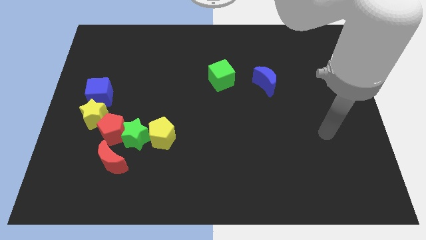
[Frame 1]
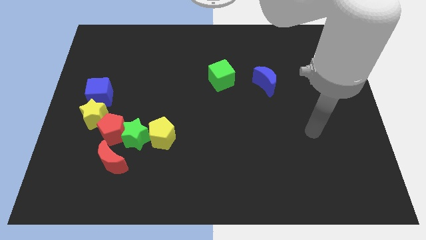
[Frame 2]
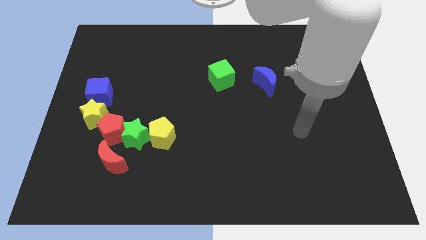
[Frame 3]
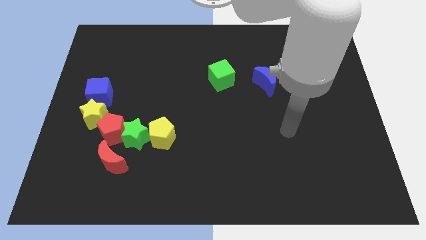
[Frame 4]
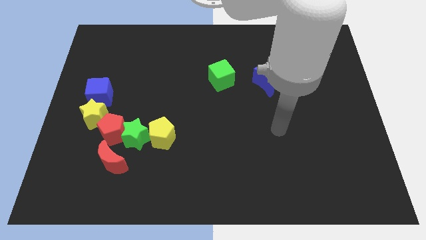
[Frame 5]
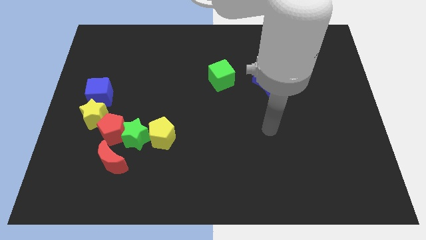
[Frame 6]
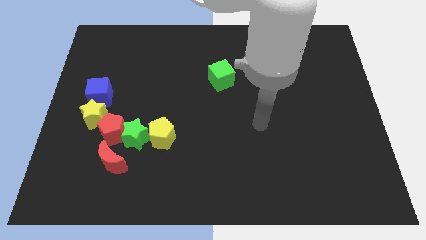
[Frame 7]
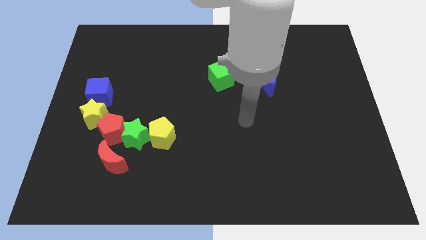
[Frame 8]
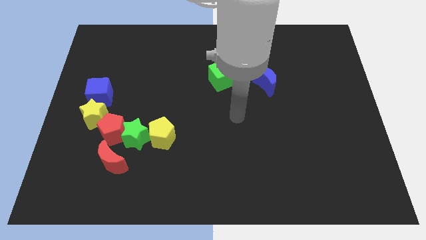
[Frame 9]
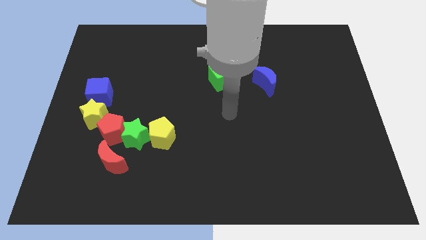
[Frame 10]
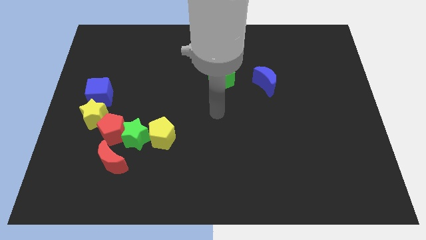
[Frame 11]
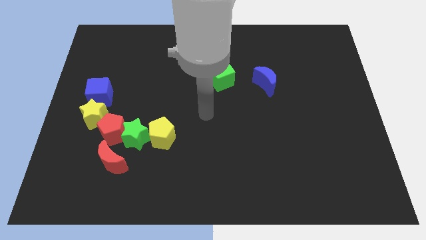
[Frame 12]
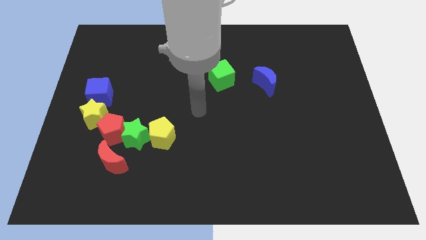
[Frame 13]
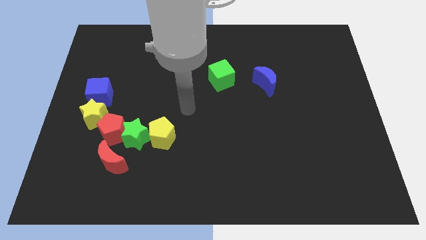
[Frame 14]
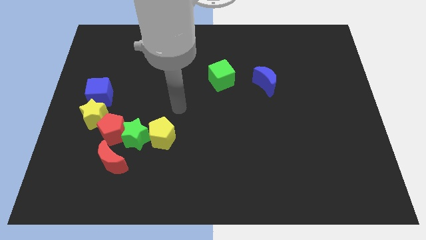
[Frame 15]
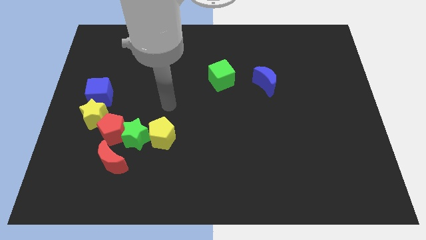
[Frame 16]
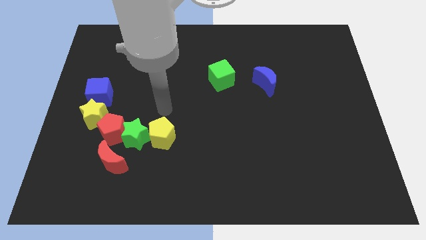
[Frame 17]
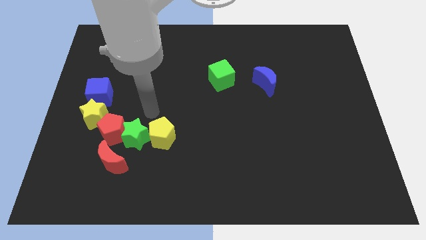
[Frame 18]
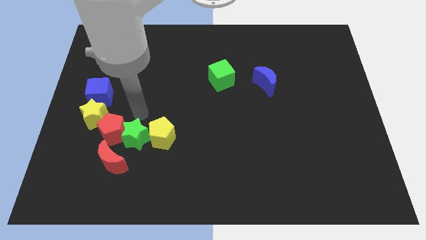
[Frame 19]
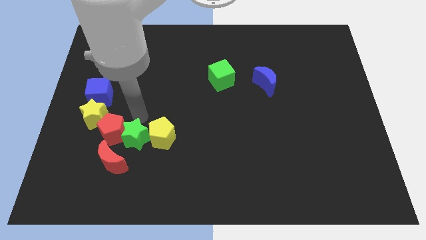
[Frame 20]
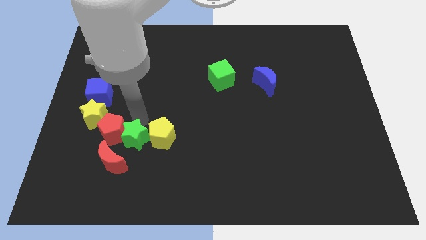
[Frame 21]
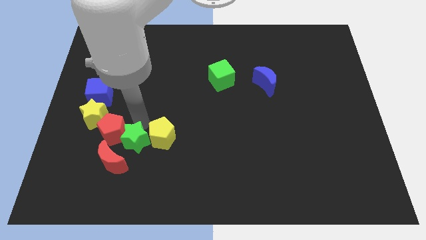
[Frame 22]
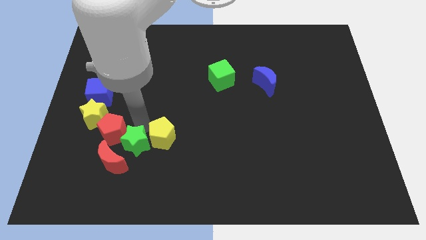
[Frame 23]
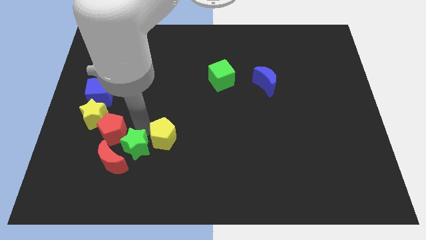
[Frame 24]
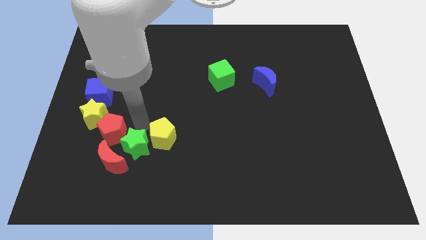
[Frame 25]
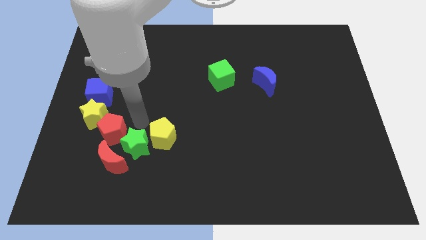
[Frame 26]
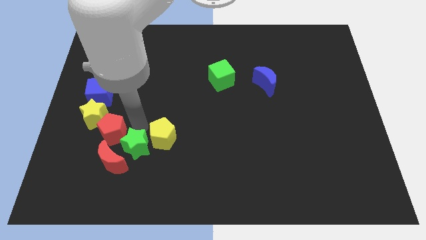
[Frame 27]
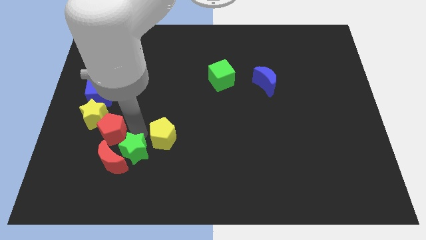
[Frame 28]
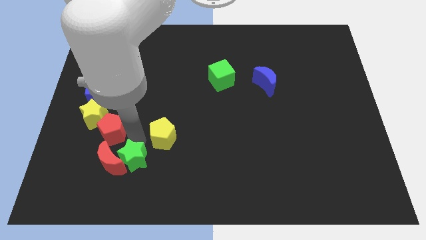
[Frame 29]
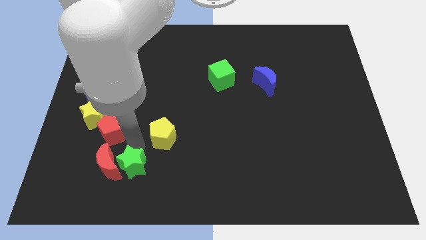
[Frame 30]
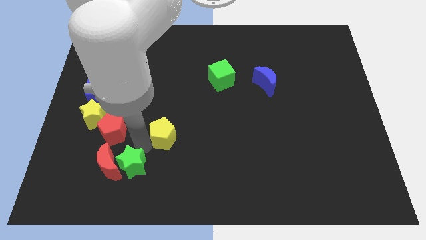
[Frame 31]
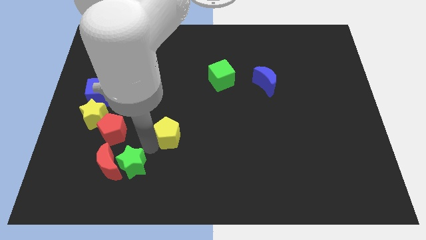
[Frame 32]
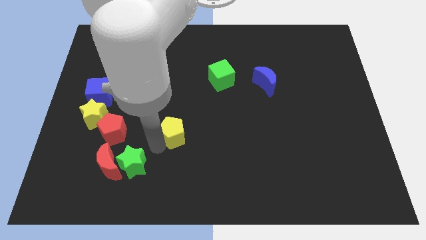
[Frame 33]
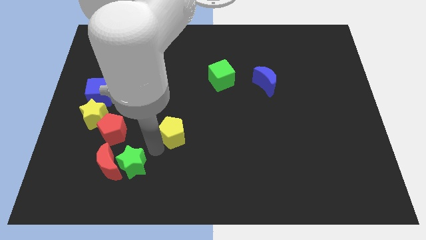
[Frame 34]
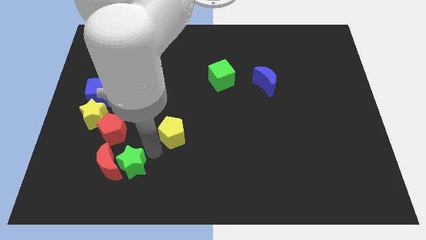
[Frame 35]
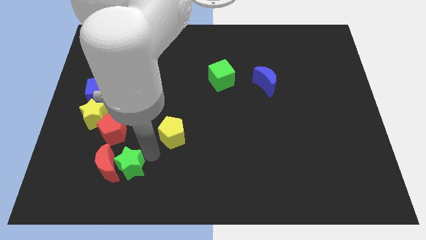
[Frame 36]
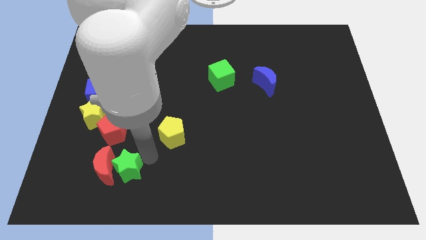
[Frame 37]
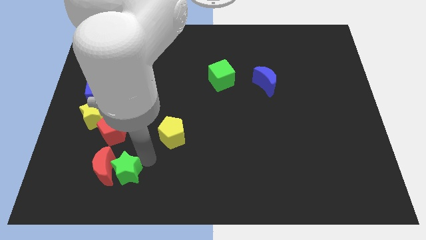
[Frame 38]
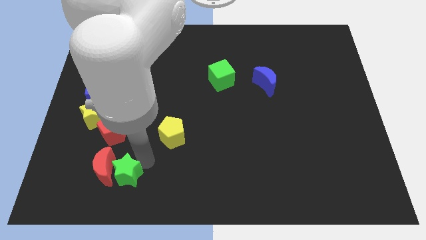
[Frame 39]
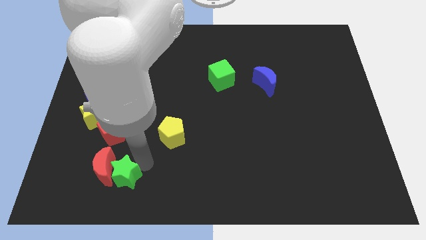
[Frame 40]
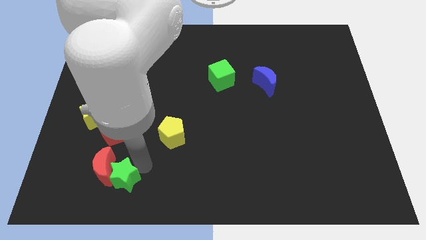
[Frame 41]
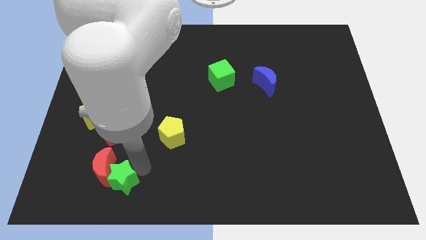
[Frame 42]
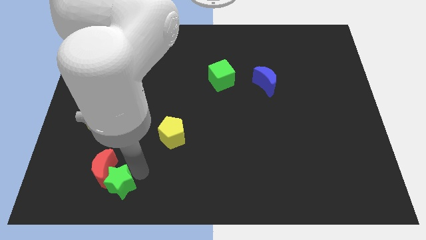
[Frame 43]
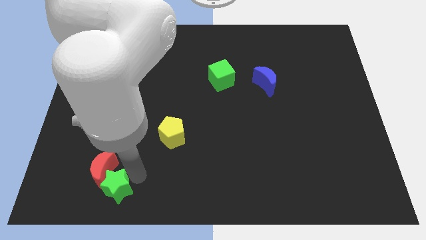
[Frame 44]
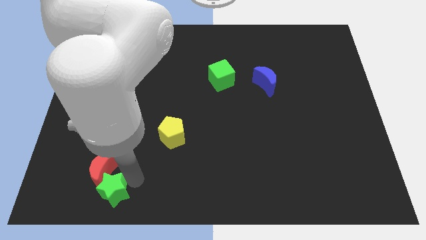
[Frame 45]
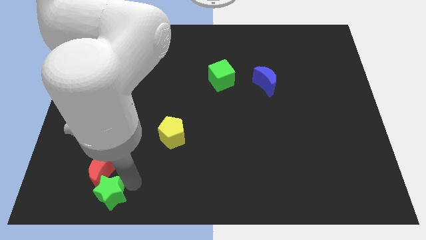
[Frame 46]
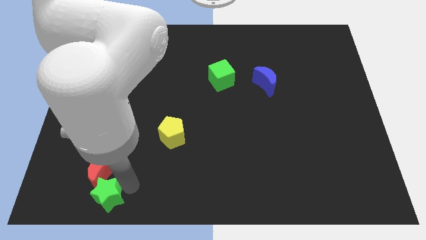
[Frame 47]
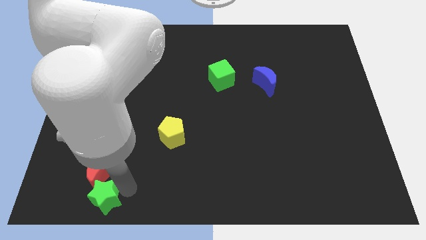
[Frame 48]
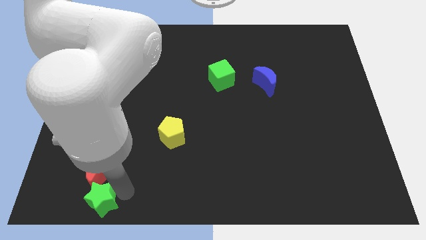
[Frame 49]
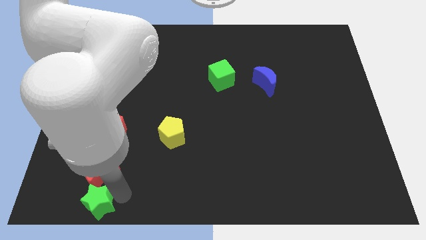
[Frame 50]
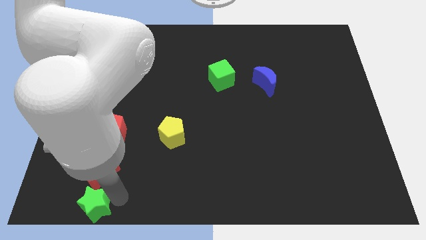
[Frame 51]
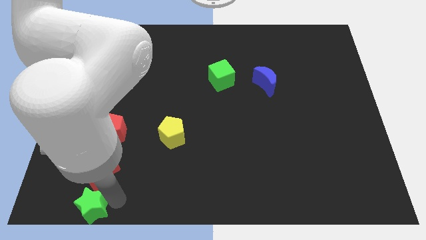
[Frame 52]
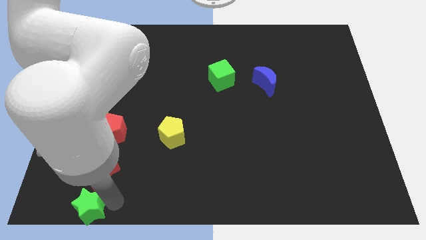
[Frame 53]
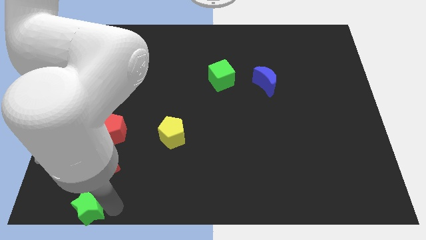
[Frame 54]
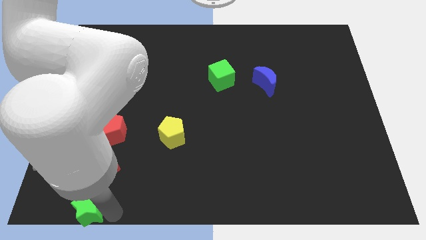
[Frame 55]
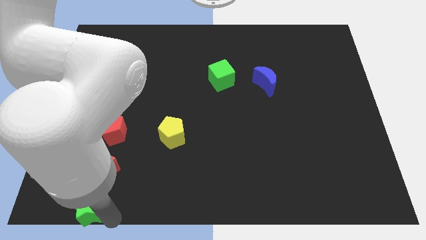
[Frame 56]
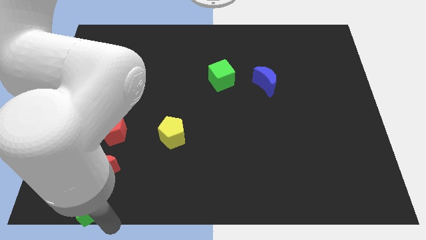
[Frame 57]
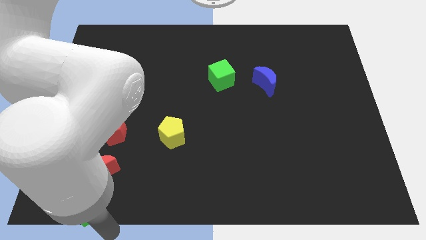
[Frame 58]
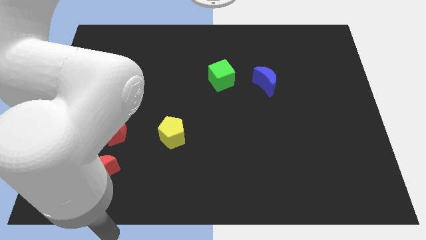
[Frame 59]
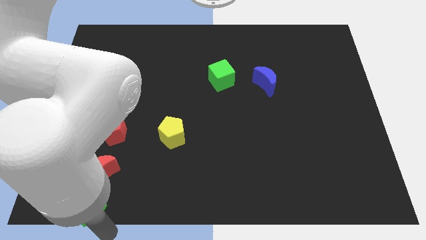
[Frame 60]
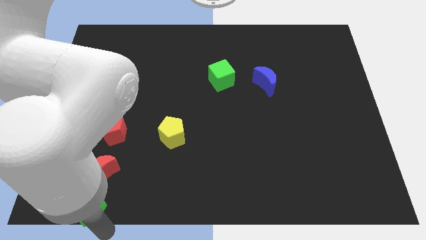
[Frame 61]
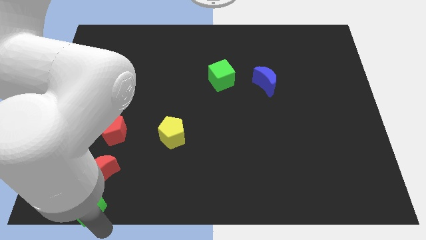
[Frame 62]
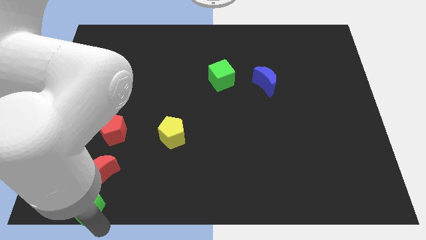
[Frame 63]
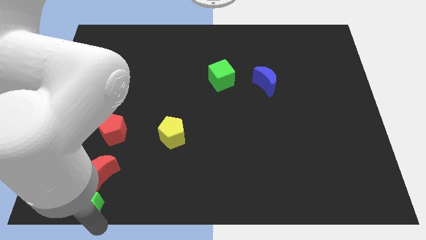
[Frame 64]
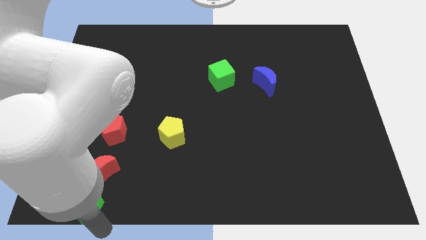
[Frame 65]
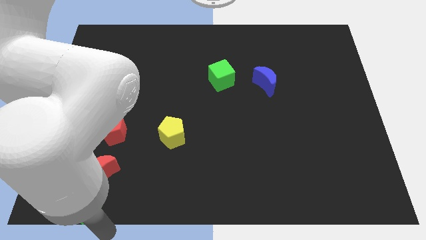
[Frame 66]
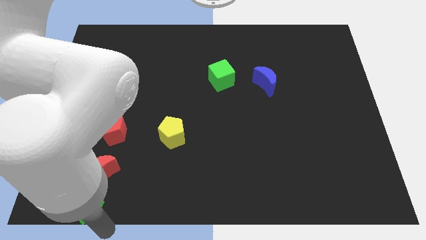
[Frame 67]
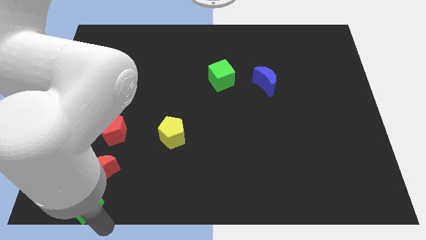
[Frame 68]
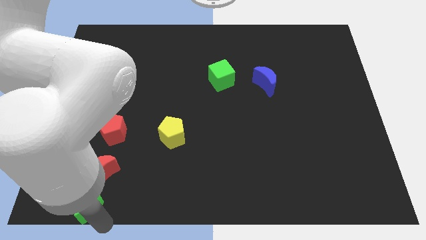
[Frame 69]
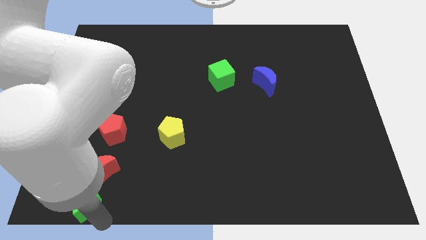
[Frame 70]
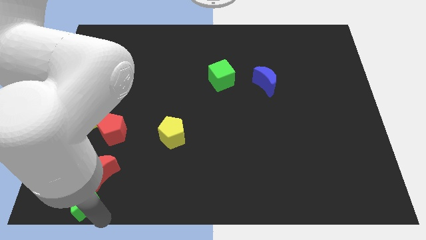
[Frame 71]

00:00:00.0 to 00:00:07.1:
move the green star to the bottom left
